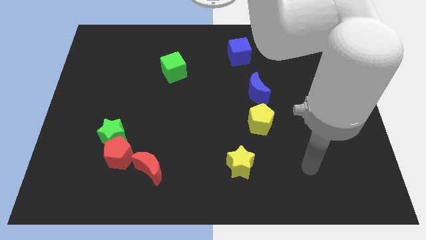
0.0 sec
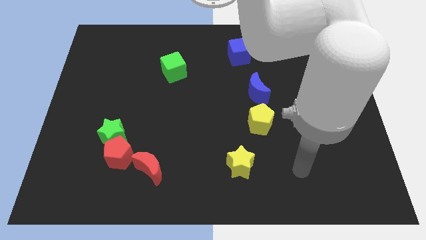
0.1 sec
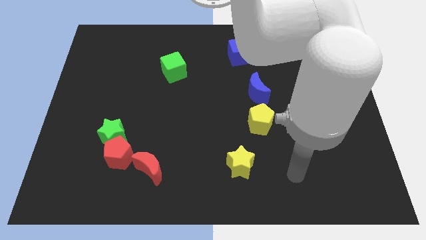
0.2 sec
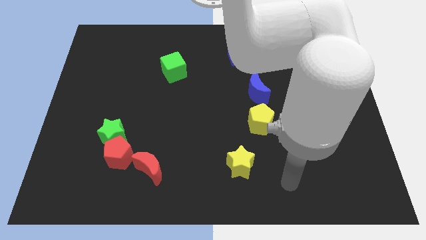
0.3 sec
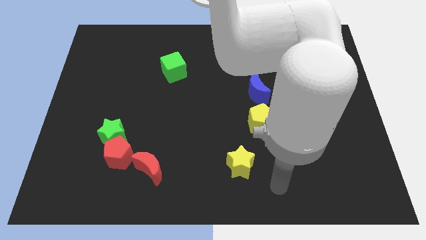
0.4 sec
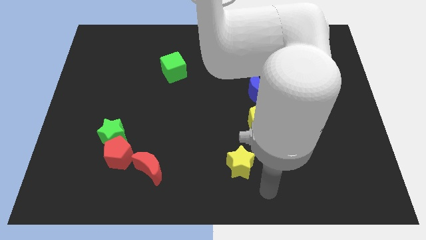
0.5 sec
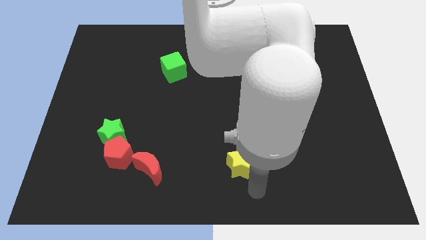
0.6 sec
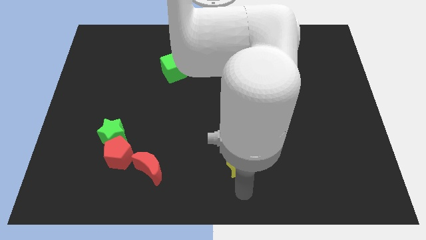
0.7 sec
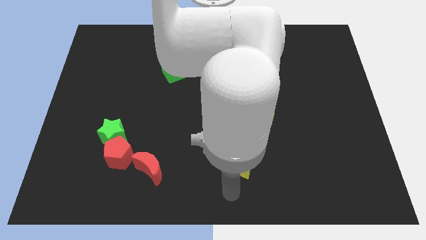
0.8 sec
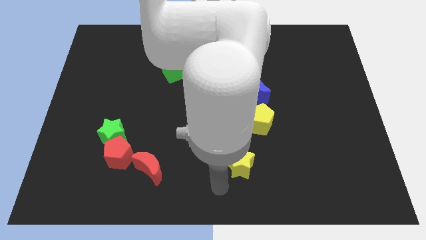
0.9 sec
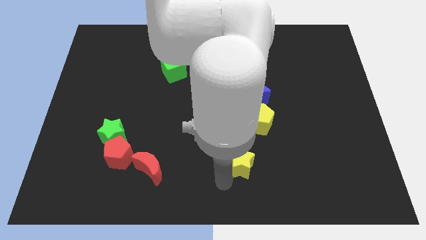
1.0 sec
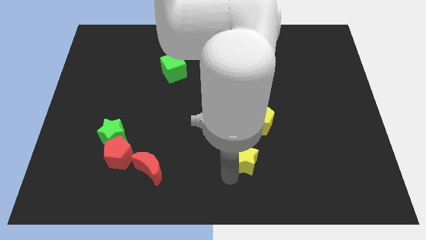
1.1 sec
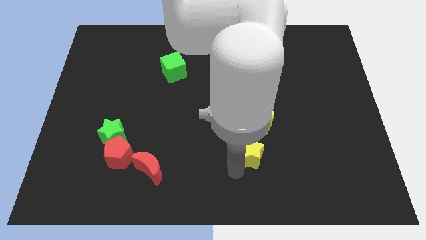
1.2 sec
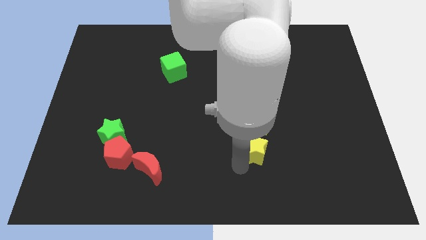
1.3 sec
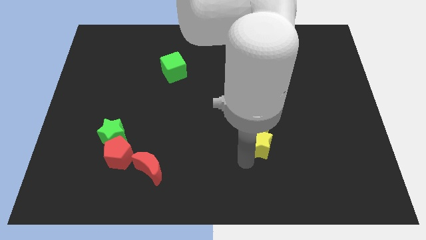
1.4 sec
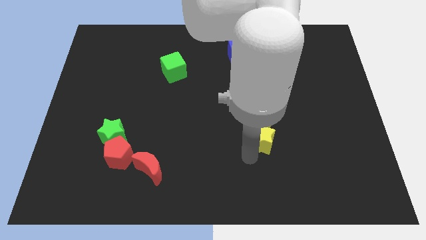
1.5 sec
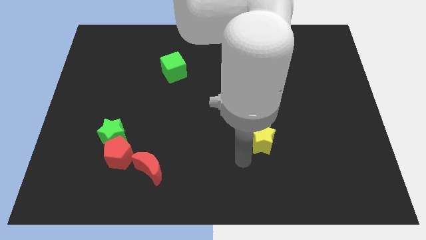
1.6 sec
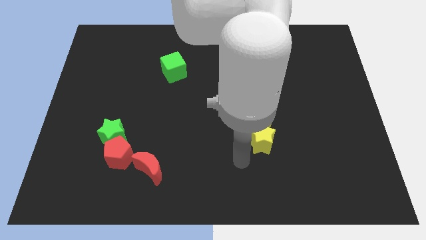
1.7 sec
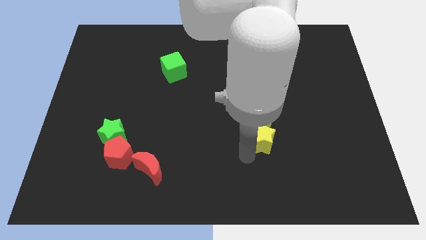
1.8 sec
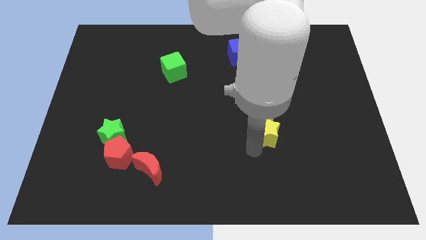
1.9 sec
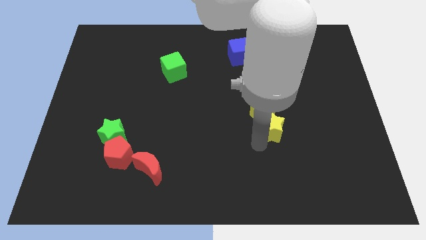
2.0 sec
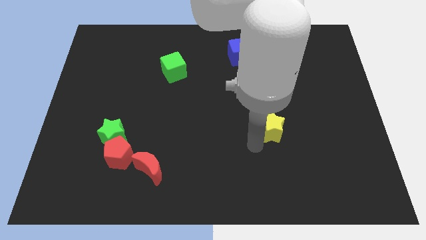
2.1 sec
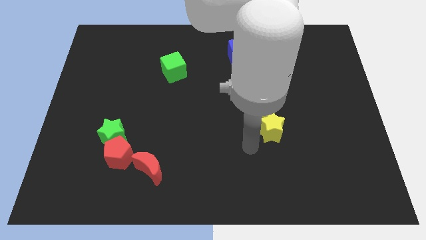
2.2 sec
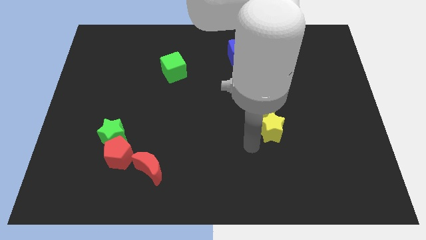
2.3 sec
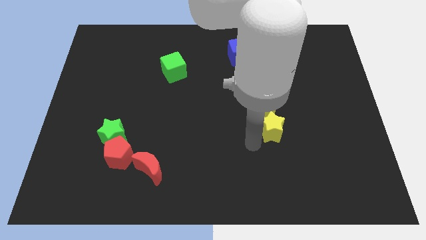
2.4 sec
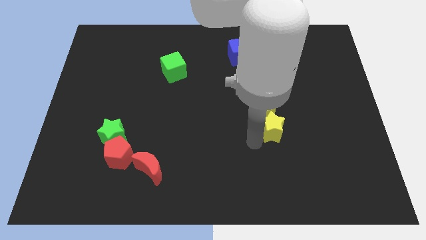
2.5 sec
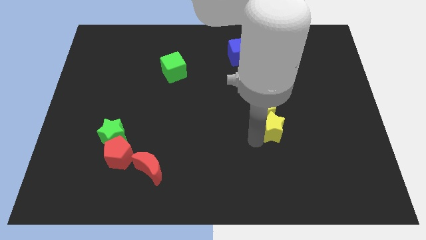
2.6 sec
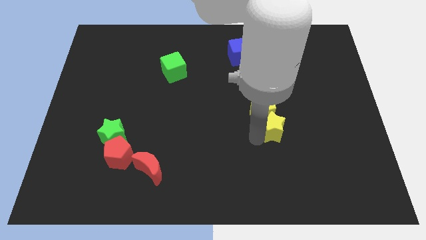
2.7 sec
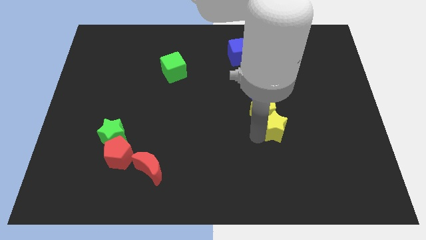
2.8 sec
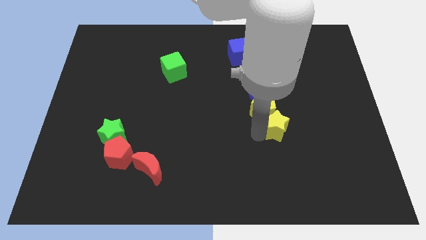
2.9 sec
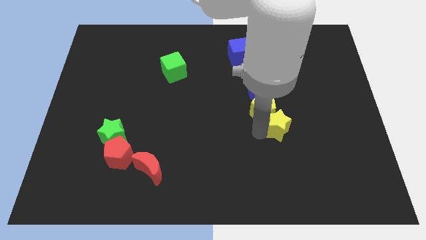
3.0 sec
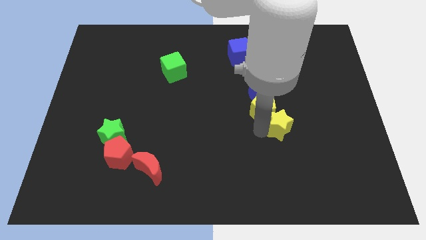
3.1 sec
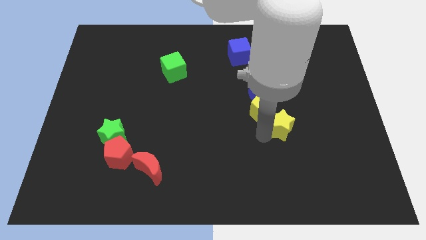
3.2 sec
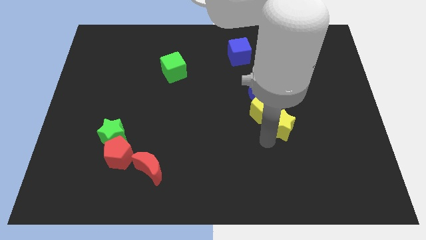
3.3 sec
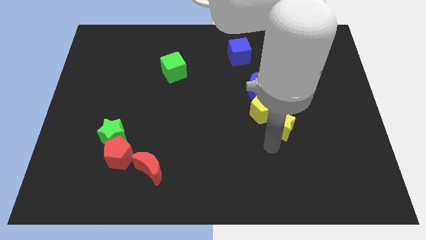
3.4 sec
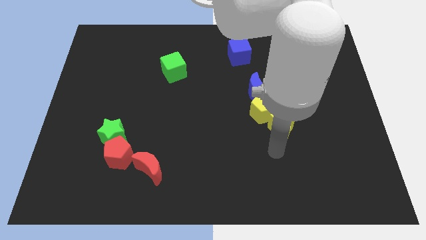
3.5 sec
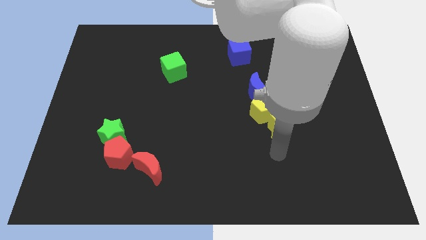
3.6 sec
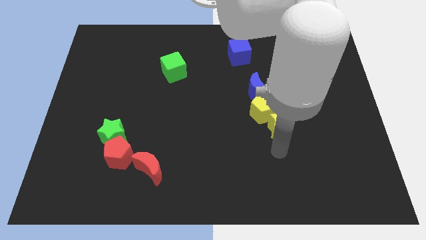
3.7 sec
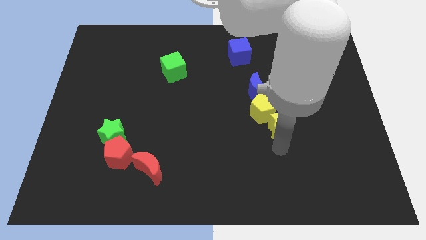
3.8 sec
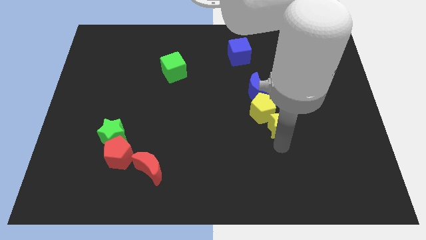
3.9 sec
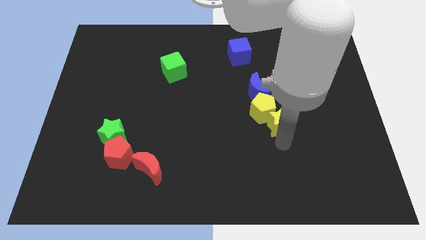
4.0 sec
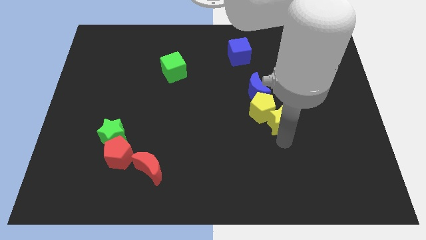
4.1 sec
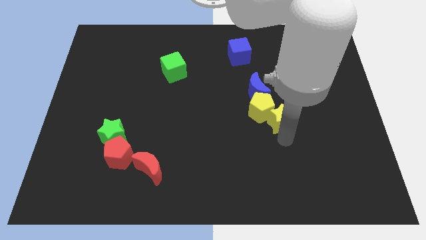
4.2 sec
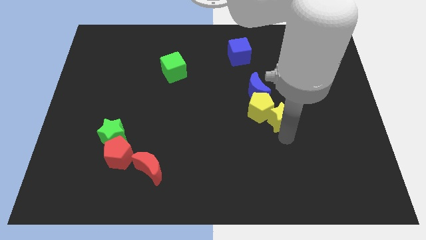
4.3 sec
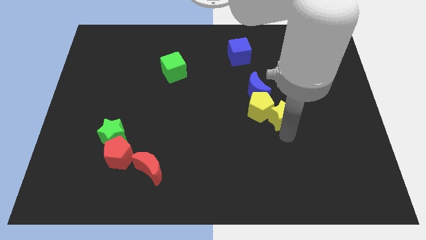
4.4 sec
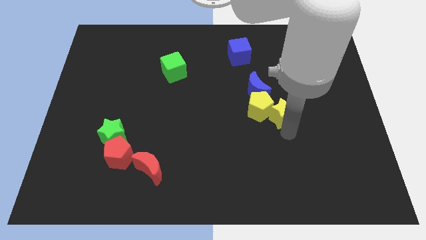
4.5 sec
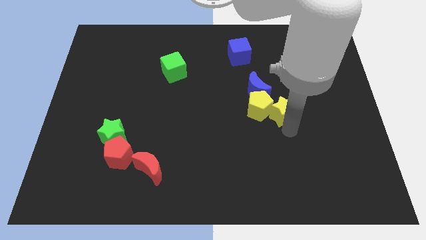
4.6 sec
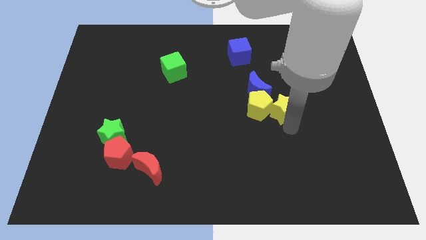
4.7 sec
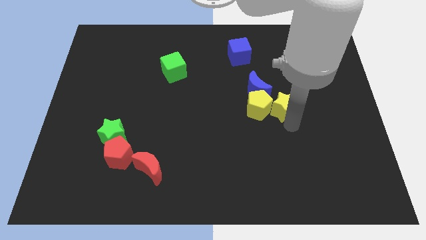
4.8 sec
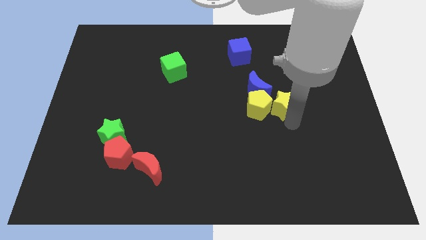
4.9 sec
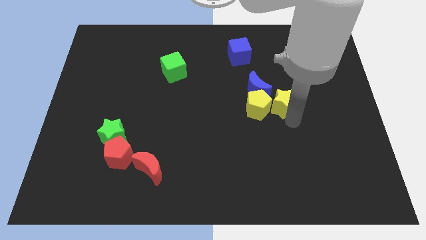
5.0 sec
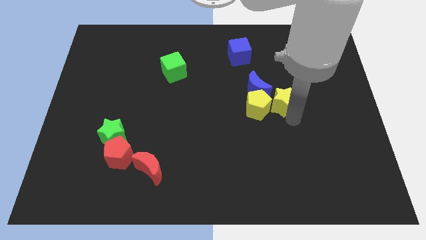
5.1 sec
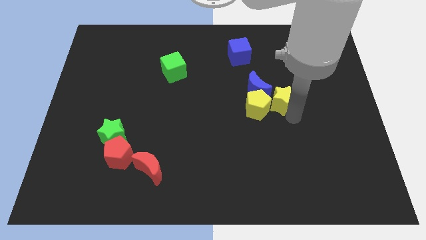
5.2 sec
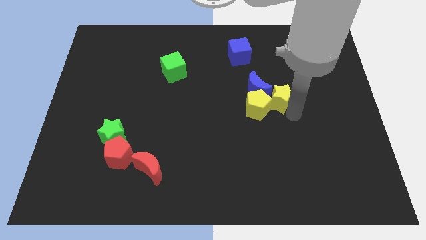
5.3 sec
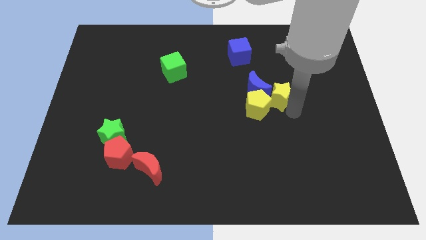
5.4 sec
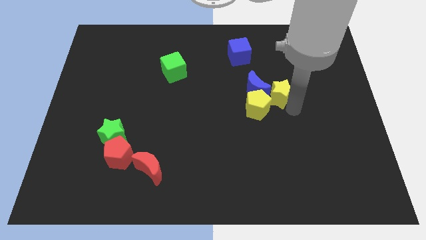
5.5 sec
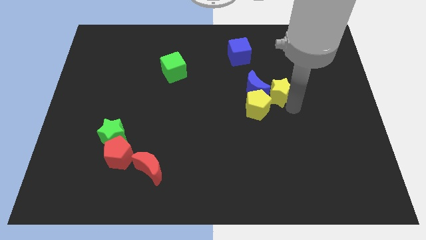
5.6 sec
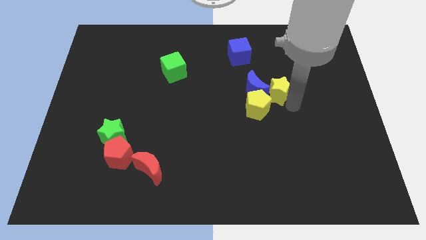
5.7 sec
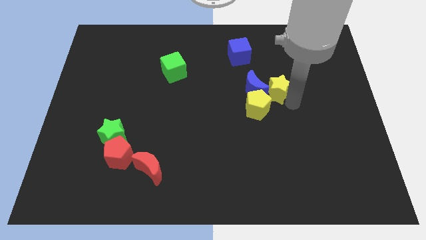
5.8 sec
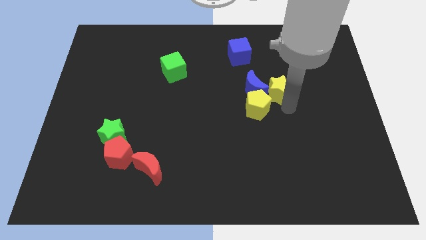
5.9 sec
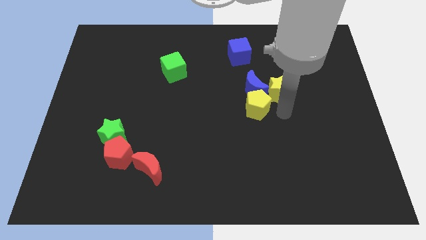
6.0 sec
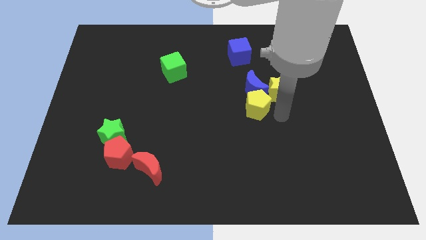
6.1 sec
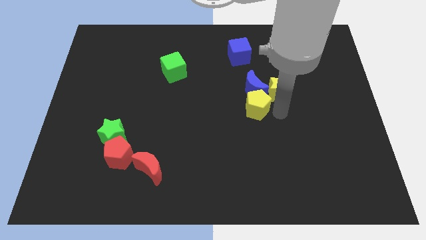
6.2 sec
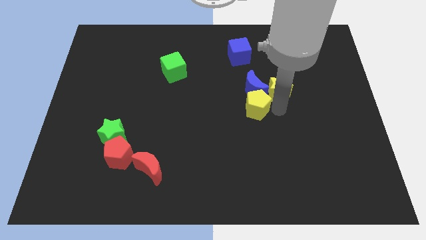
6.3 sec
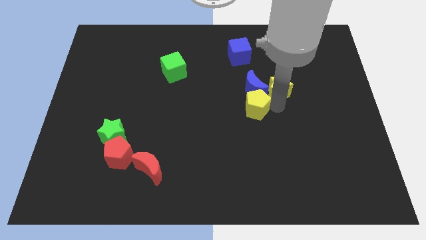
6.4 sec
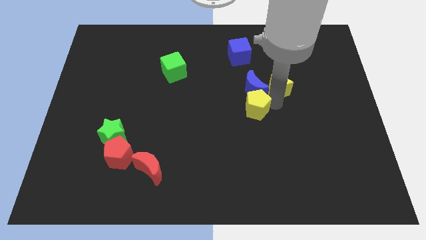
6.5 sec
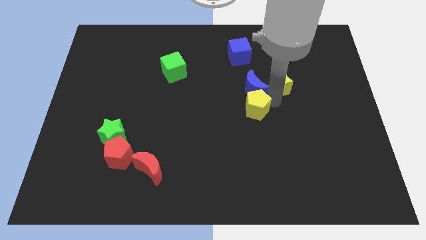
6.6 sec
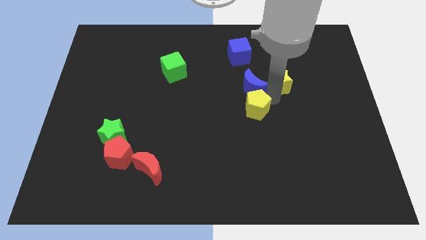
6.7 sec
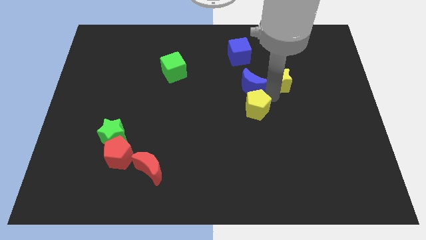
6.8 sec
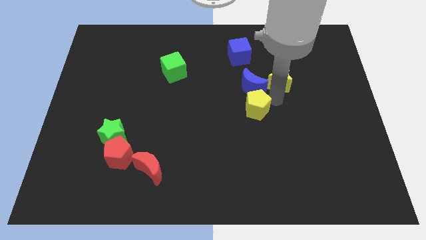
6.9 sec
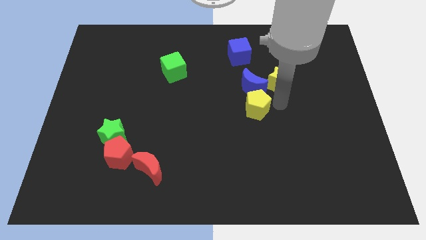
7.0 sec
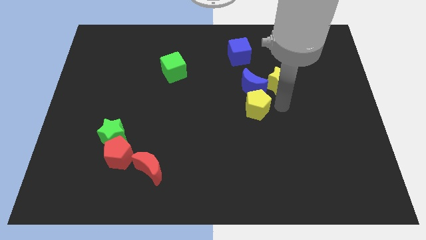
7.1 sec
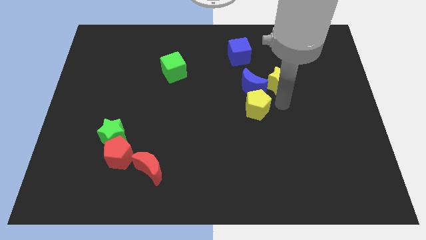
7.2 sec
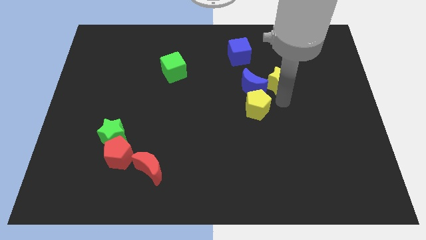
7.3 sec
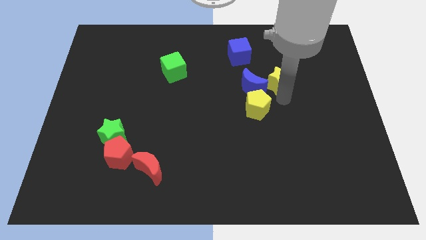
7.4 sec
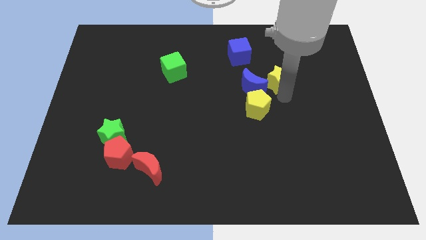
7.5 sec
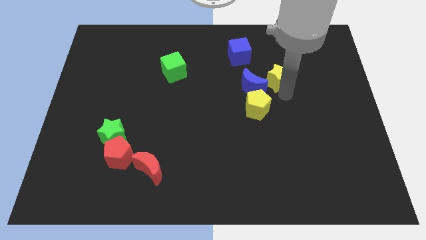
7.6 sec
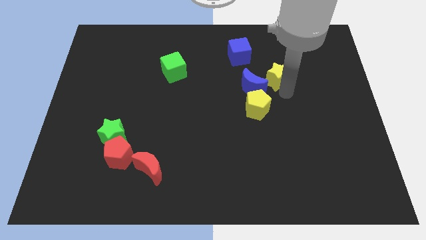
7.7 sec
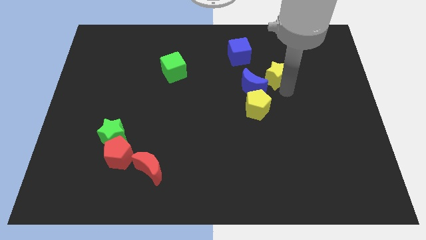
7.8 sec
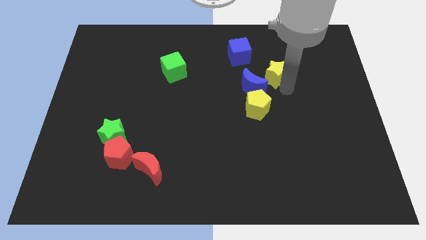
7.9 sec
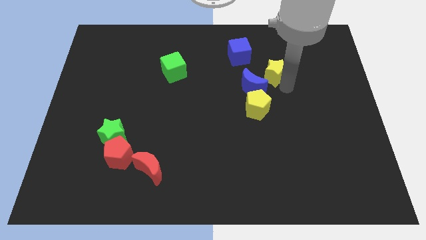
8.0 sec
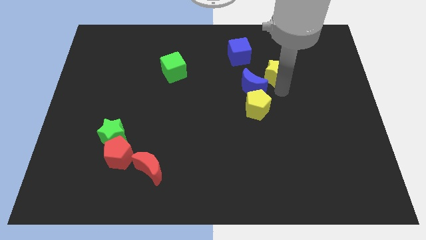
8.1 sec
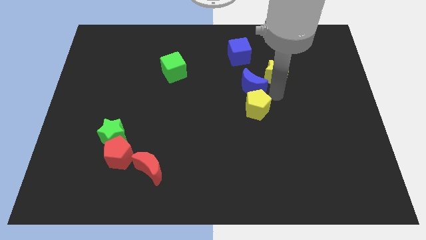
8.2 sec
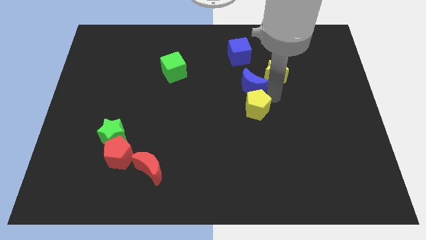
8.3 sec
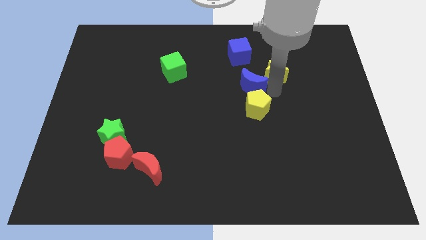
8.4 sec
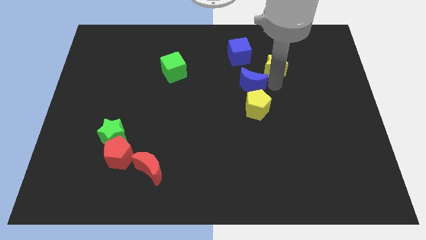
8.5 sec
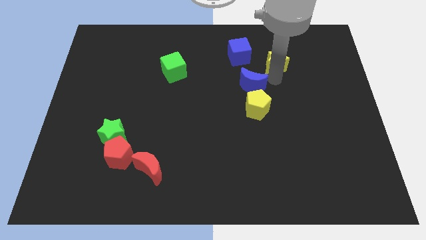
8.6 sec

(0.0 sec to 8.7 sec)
push the yellow star to the right side of the blue cube
